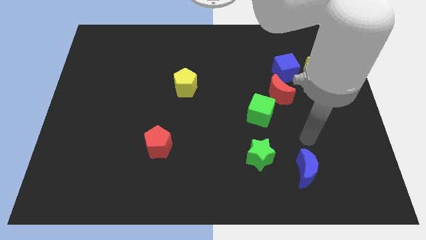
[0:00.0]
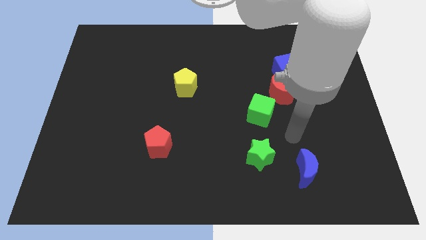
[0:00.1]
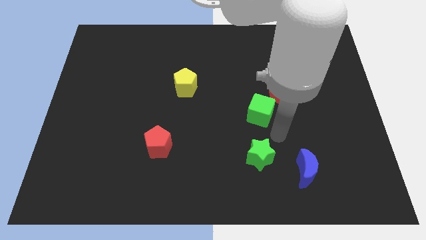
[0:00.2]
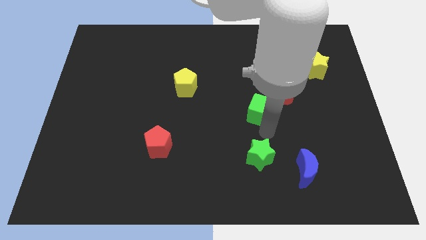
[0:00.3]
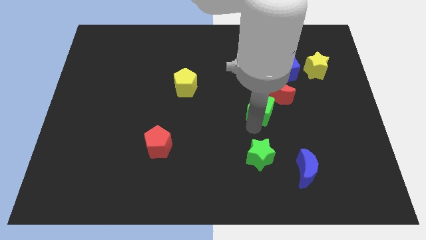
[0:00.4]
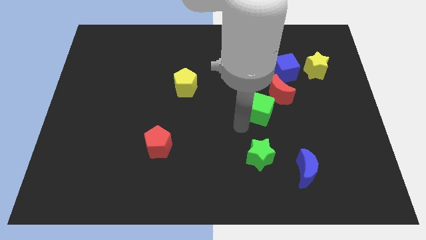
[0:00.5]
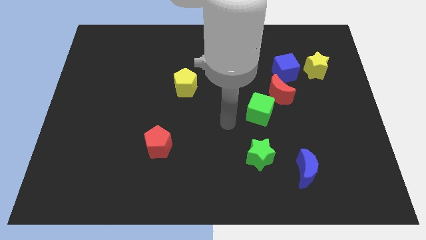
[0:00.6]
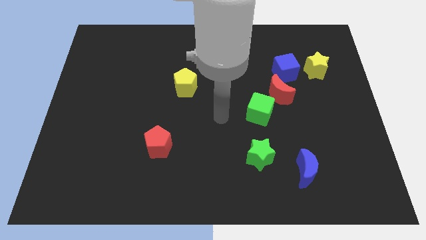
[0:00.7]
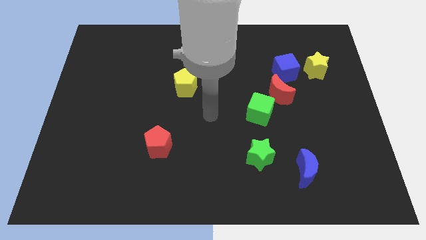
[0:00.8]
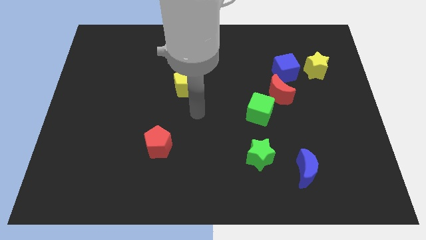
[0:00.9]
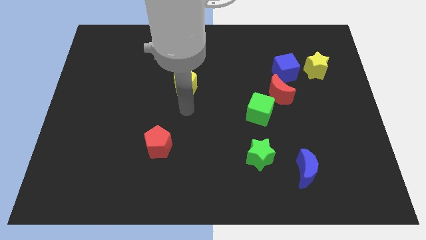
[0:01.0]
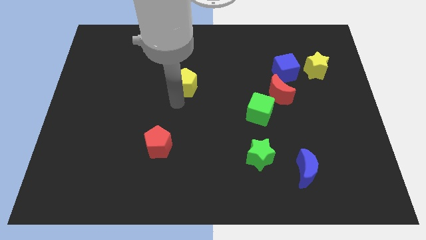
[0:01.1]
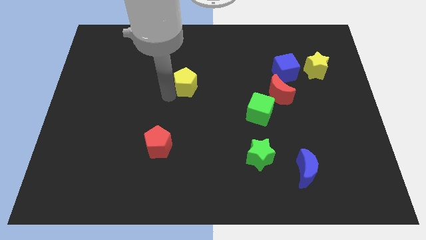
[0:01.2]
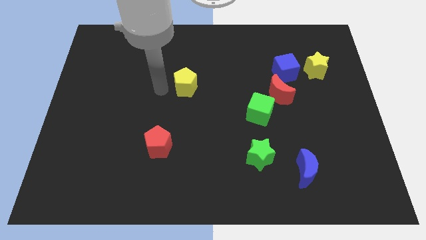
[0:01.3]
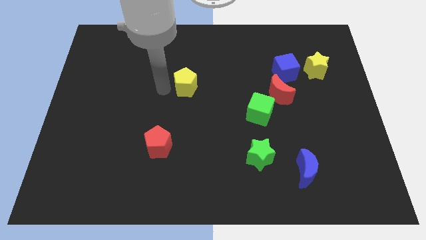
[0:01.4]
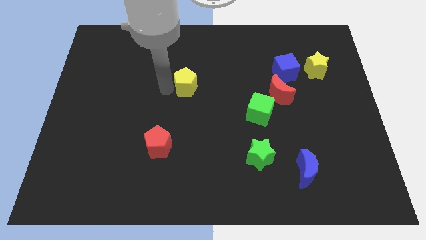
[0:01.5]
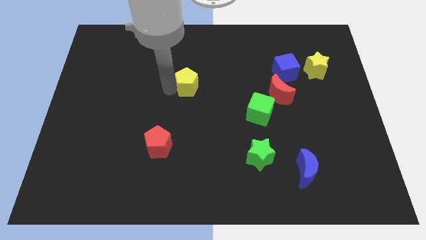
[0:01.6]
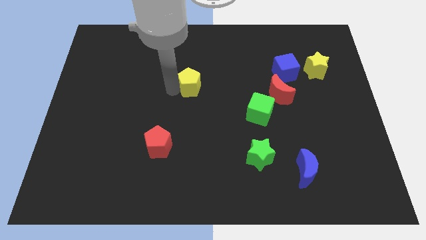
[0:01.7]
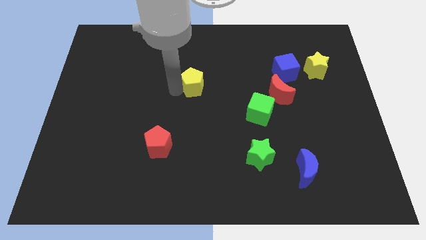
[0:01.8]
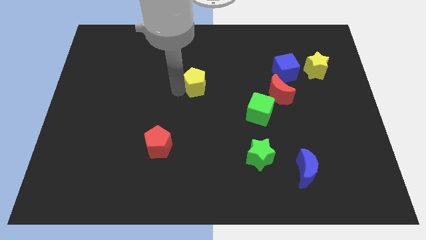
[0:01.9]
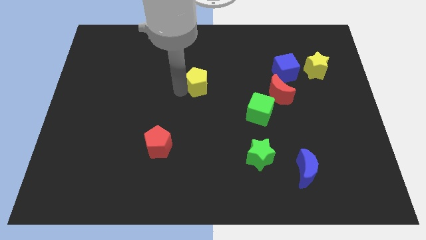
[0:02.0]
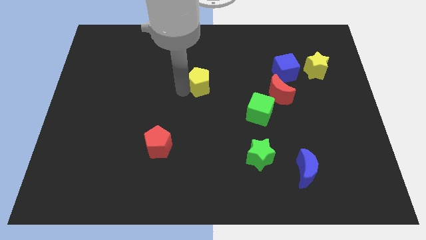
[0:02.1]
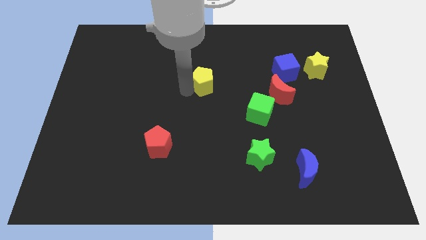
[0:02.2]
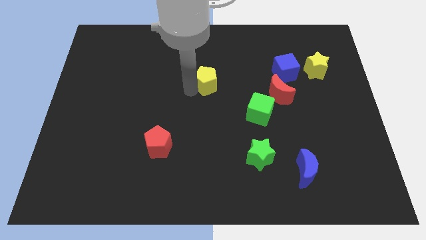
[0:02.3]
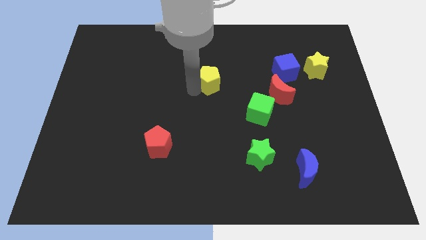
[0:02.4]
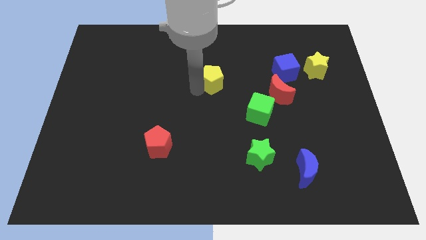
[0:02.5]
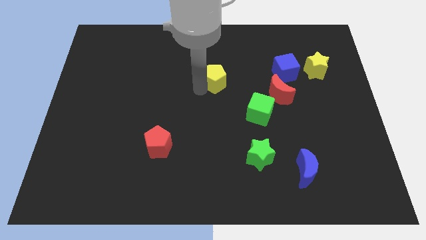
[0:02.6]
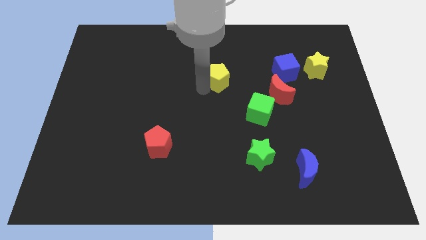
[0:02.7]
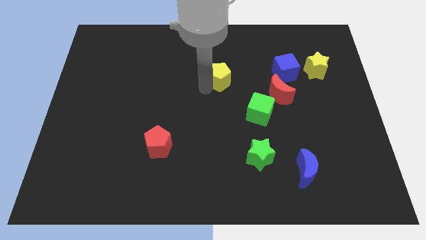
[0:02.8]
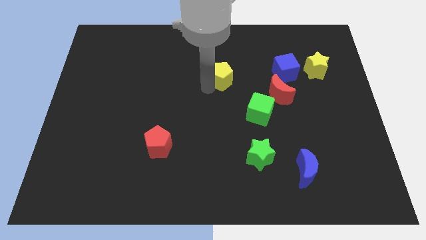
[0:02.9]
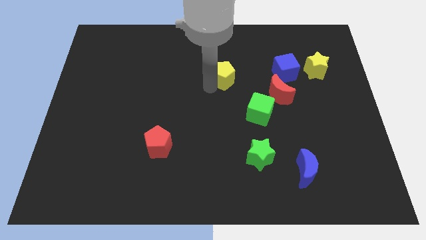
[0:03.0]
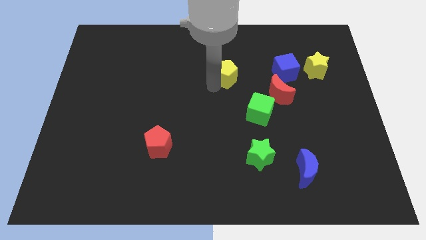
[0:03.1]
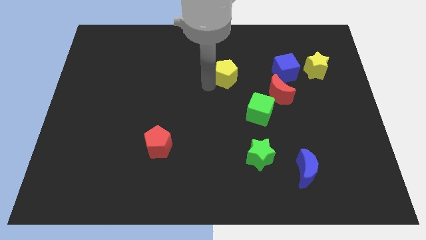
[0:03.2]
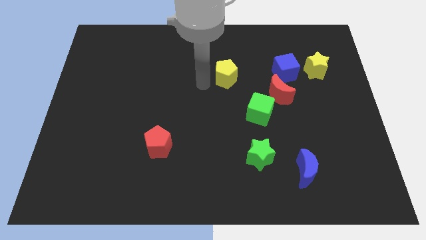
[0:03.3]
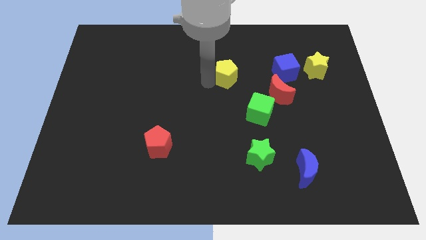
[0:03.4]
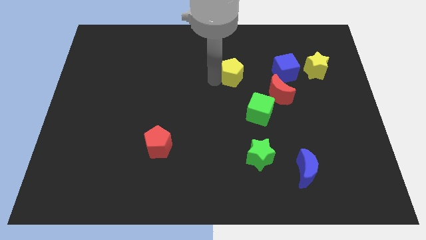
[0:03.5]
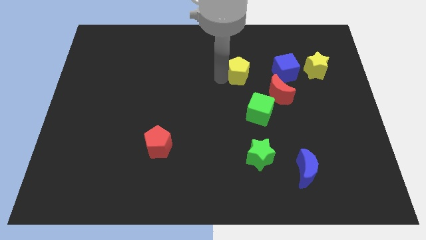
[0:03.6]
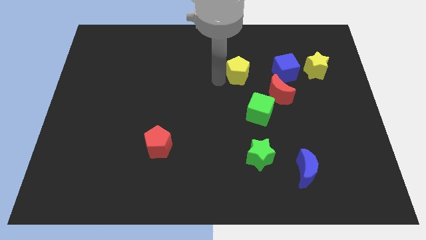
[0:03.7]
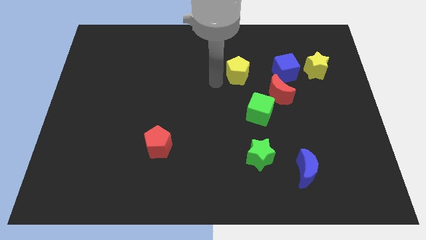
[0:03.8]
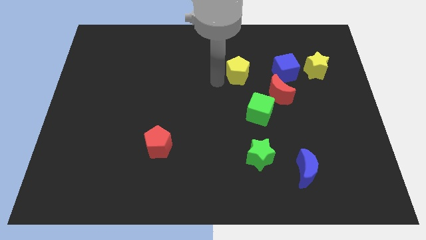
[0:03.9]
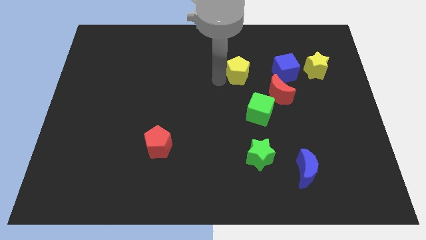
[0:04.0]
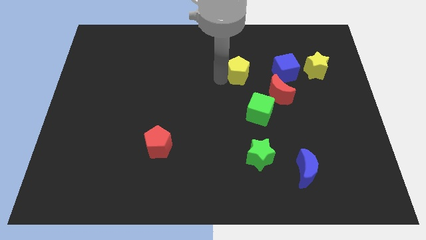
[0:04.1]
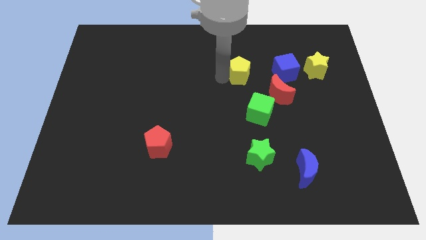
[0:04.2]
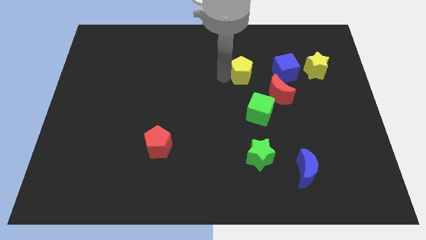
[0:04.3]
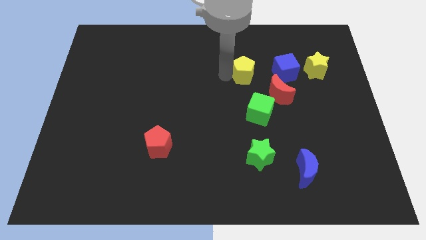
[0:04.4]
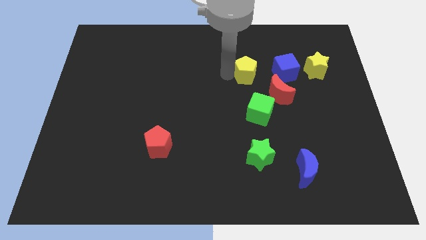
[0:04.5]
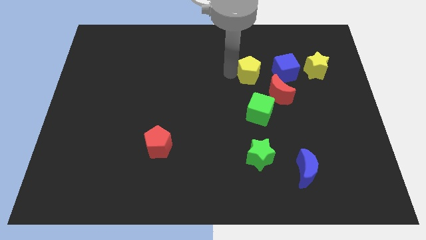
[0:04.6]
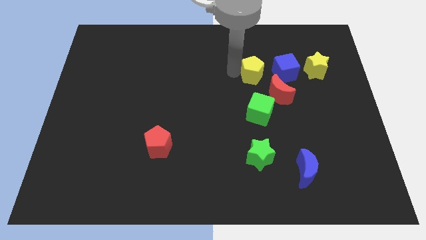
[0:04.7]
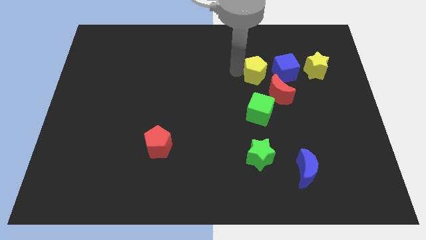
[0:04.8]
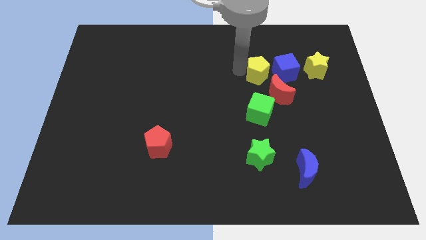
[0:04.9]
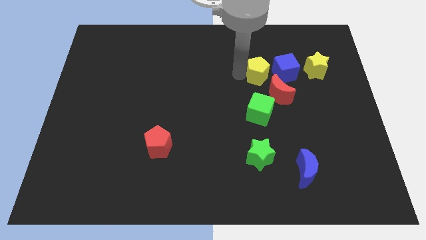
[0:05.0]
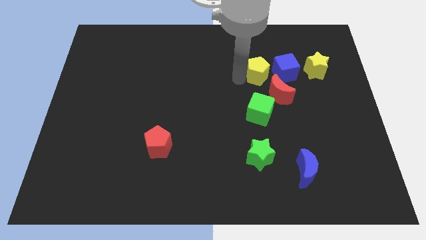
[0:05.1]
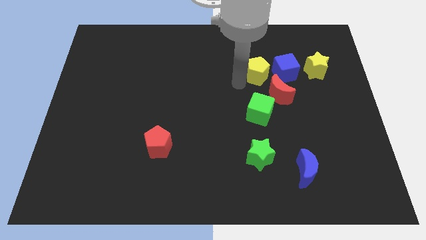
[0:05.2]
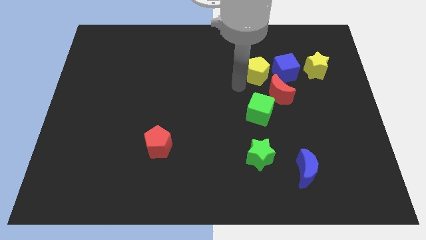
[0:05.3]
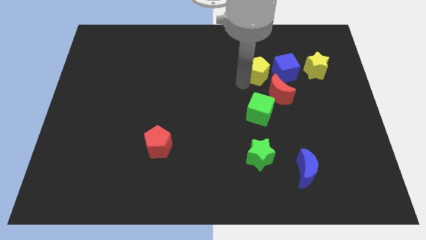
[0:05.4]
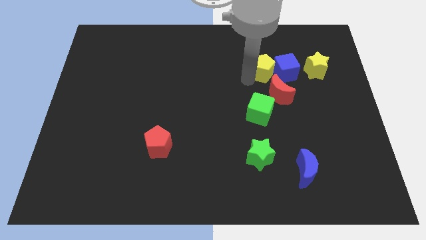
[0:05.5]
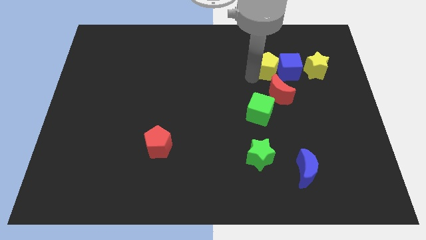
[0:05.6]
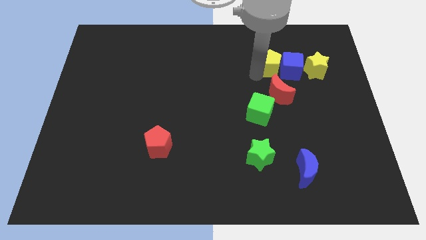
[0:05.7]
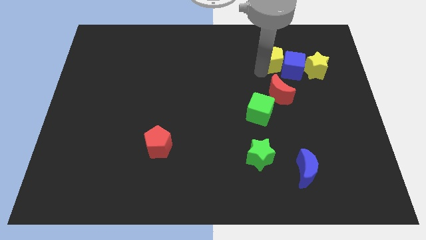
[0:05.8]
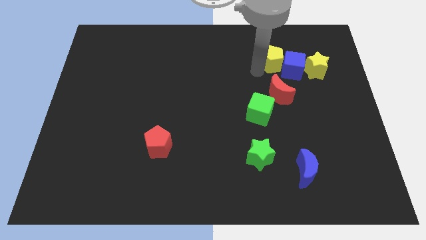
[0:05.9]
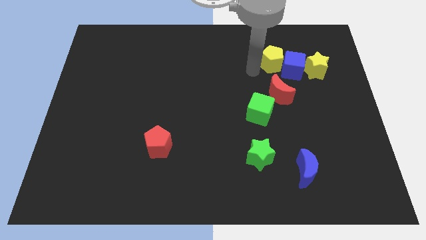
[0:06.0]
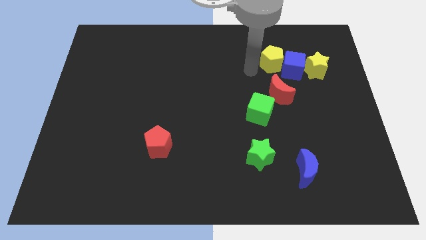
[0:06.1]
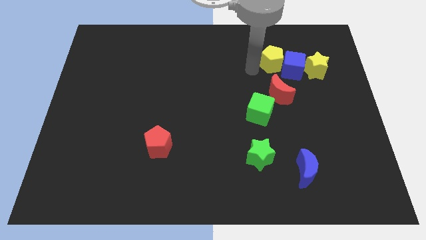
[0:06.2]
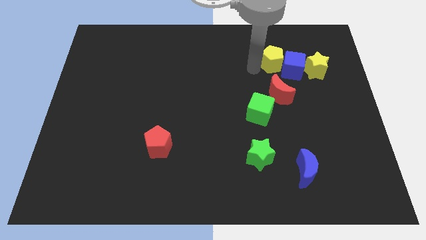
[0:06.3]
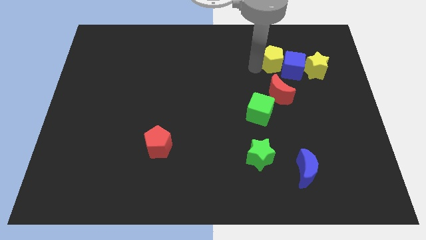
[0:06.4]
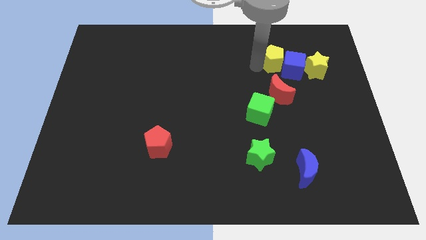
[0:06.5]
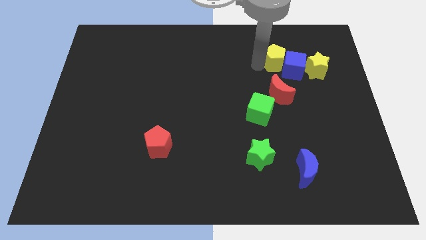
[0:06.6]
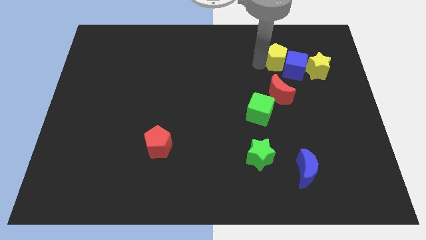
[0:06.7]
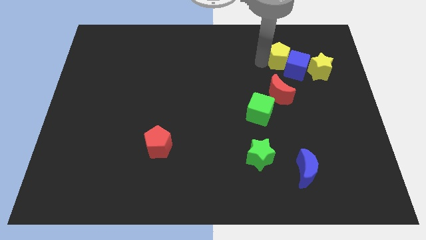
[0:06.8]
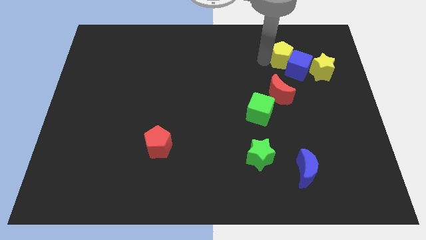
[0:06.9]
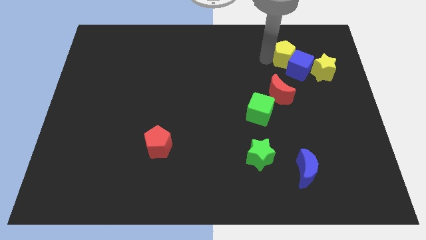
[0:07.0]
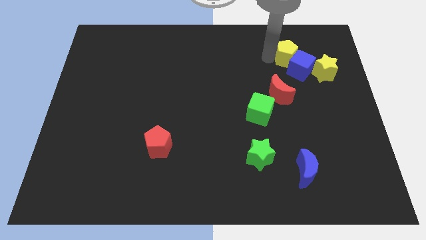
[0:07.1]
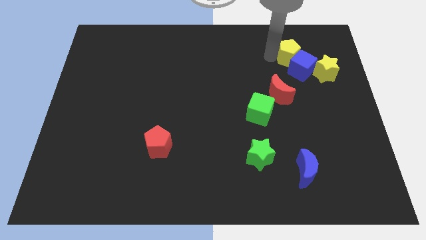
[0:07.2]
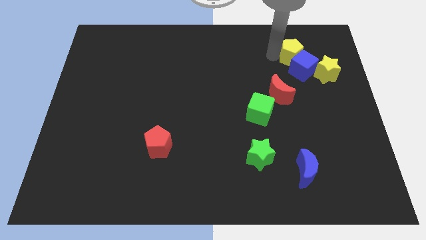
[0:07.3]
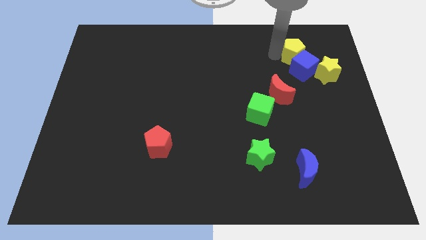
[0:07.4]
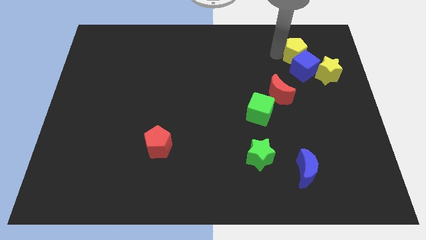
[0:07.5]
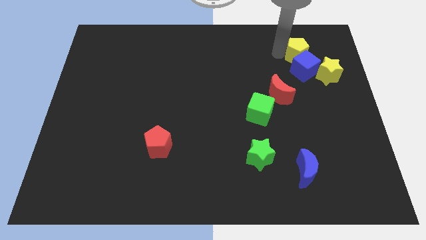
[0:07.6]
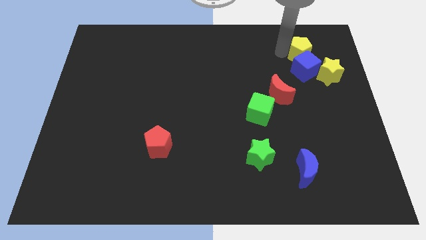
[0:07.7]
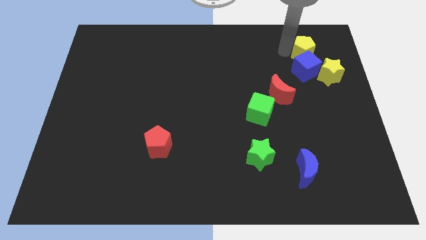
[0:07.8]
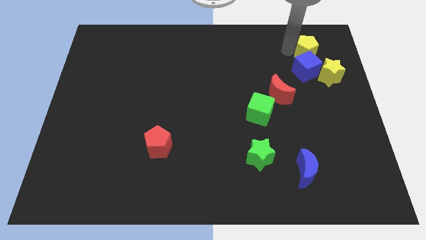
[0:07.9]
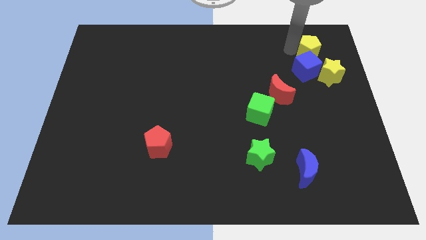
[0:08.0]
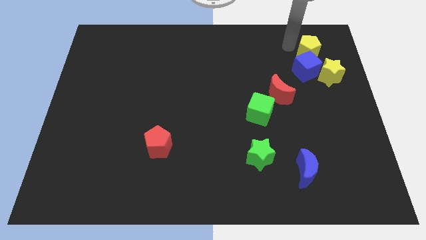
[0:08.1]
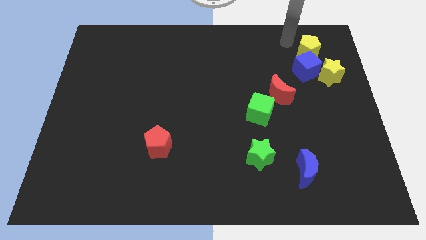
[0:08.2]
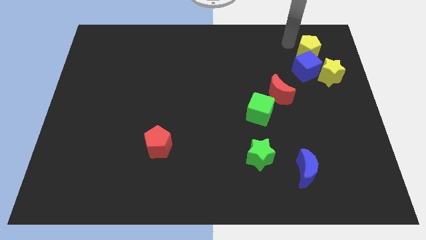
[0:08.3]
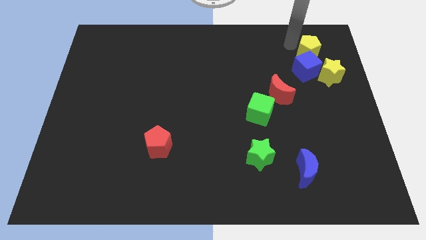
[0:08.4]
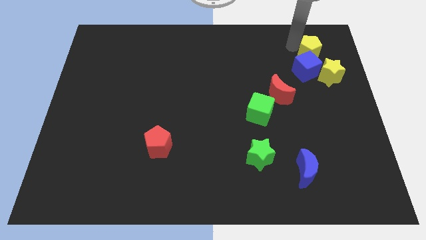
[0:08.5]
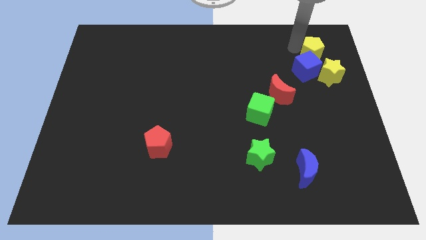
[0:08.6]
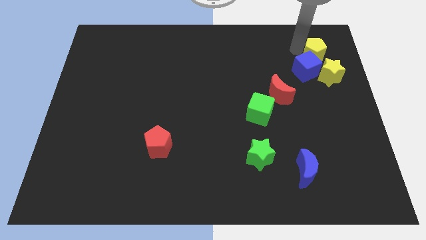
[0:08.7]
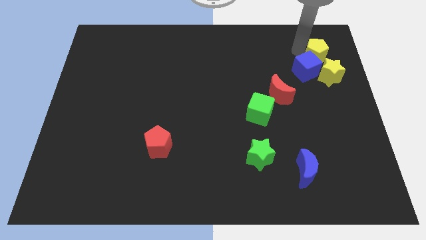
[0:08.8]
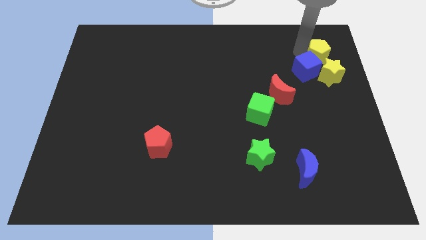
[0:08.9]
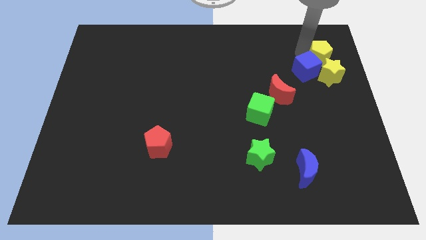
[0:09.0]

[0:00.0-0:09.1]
put the yellow pentagon right of the blue cube
